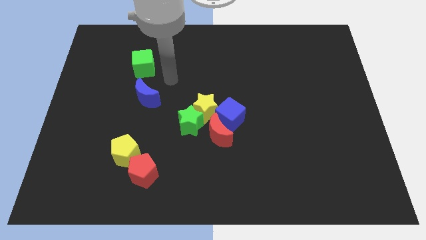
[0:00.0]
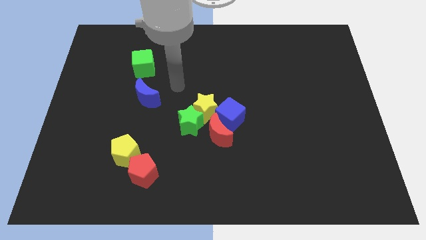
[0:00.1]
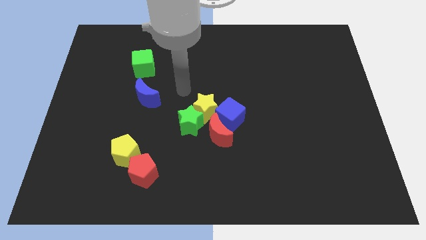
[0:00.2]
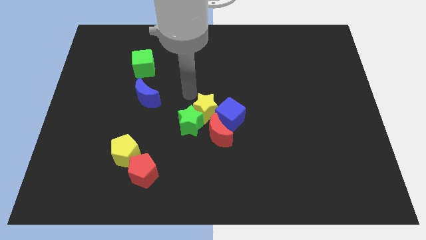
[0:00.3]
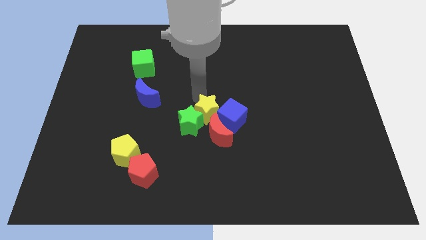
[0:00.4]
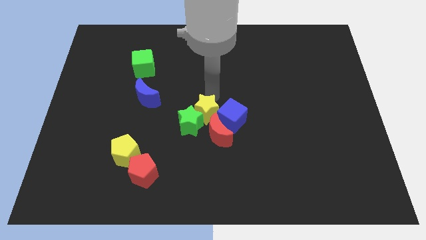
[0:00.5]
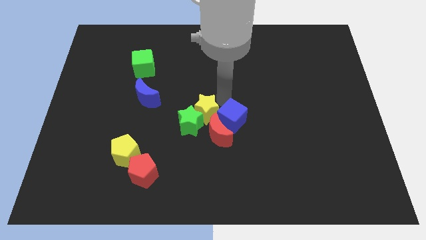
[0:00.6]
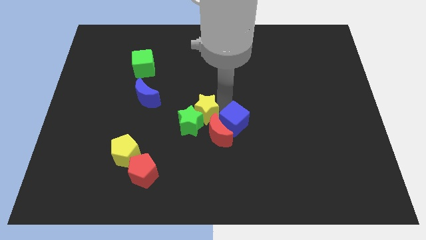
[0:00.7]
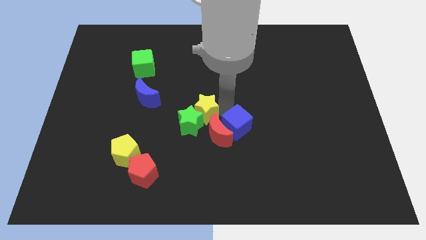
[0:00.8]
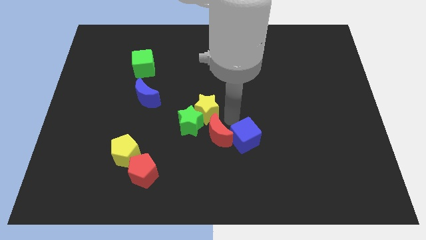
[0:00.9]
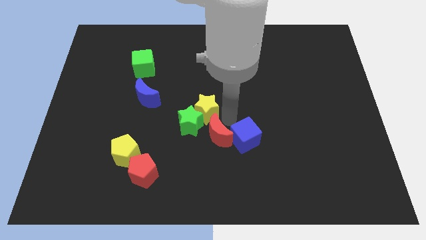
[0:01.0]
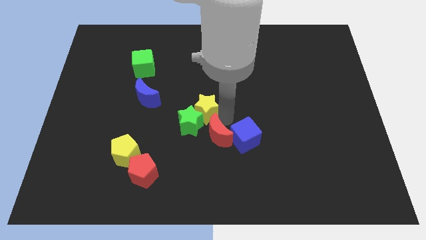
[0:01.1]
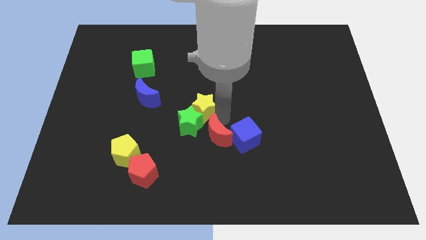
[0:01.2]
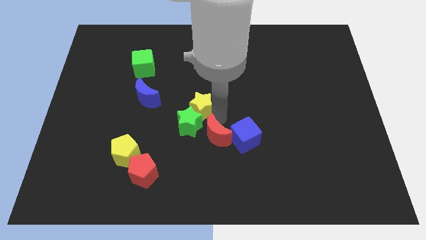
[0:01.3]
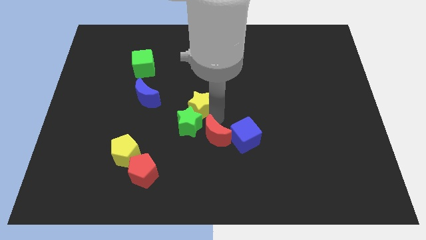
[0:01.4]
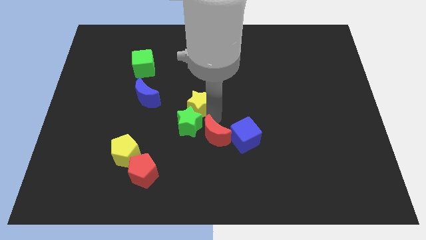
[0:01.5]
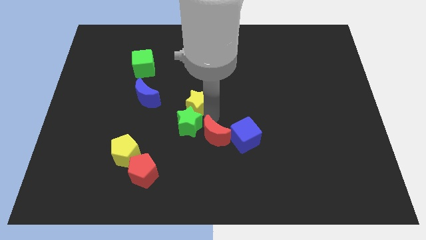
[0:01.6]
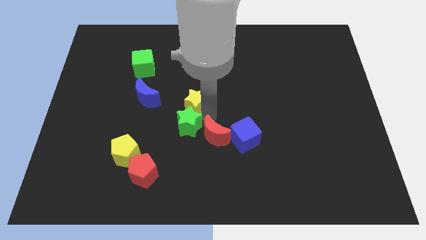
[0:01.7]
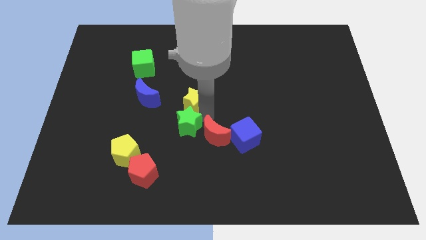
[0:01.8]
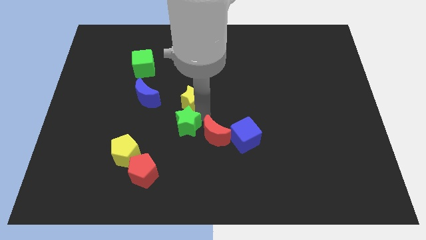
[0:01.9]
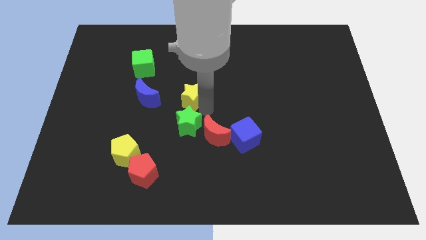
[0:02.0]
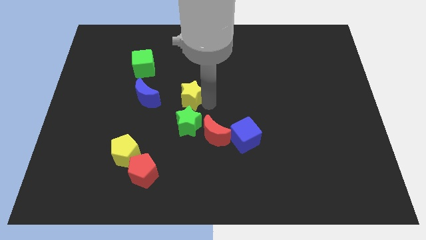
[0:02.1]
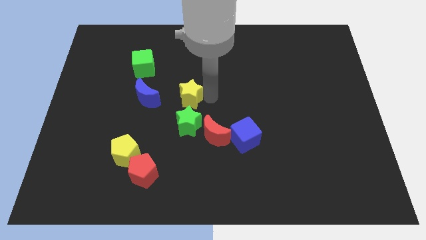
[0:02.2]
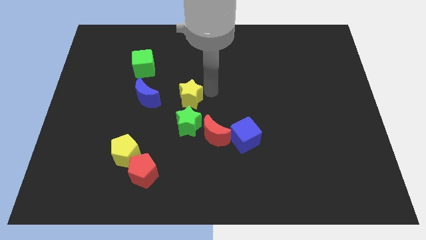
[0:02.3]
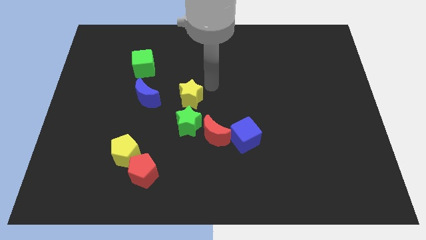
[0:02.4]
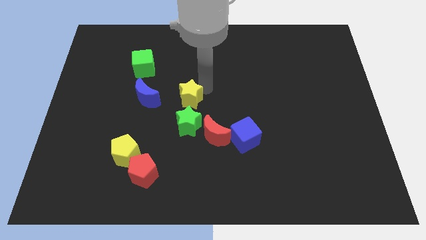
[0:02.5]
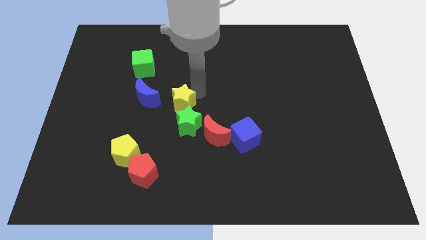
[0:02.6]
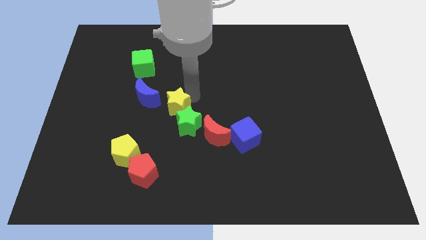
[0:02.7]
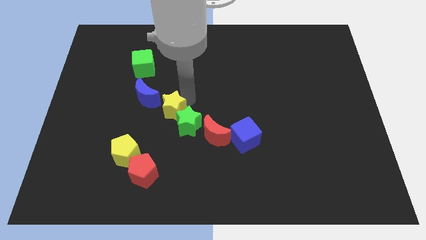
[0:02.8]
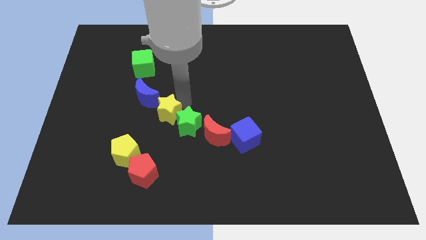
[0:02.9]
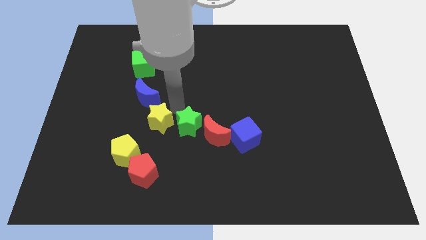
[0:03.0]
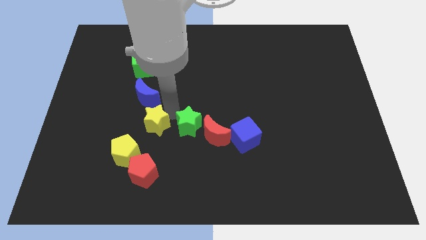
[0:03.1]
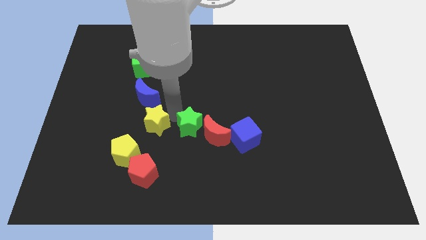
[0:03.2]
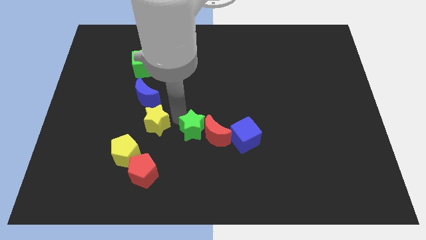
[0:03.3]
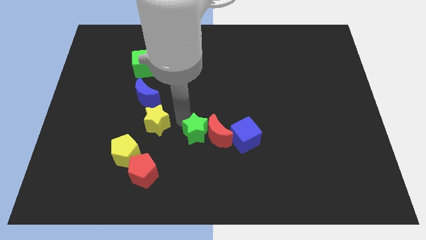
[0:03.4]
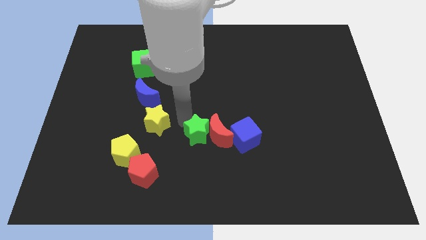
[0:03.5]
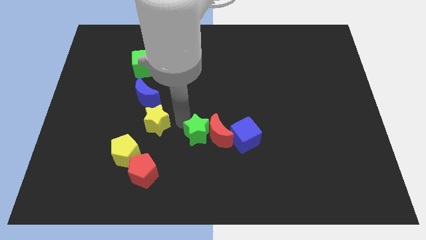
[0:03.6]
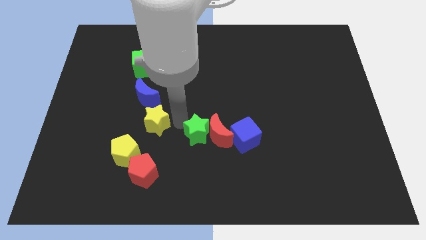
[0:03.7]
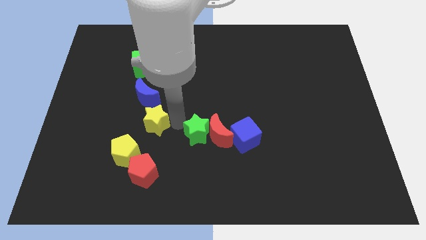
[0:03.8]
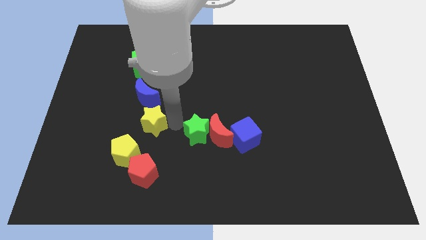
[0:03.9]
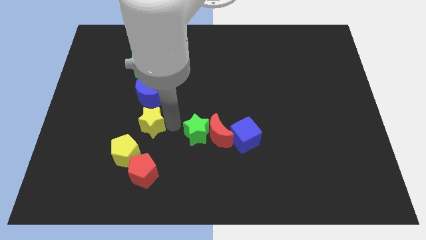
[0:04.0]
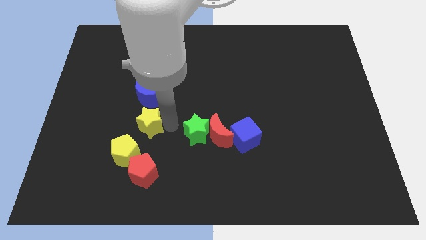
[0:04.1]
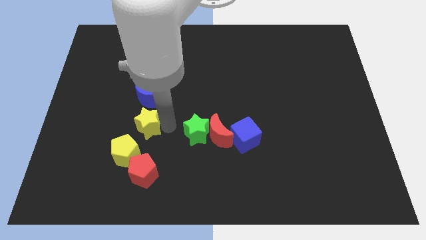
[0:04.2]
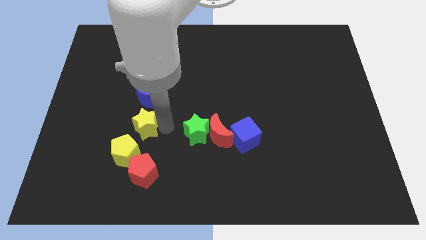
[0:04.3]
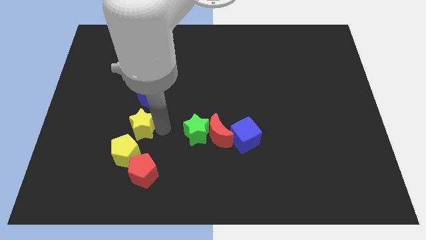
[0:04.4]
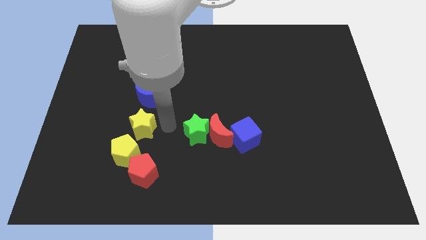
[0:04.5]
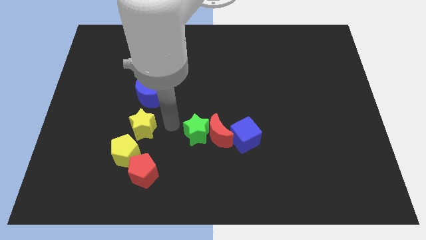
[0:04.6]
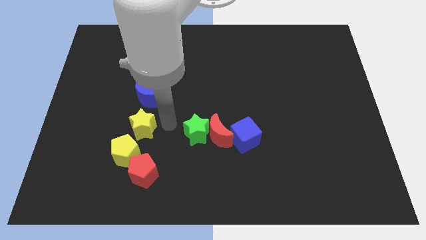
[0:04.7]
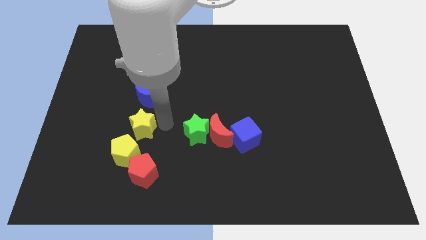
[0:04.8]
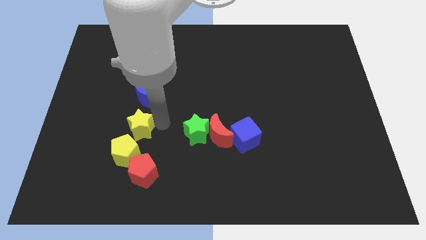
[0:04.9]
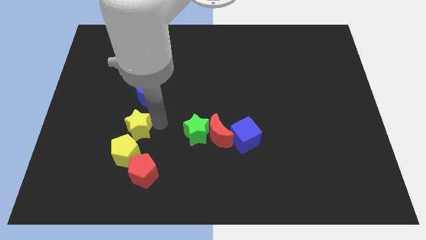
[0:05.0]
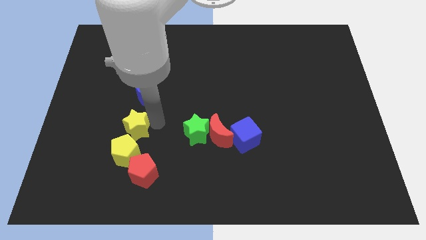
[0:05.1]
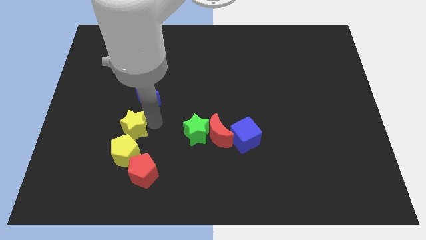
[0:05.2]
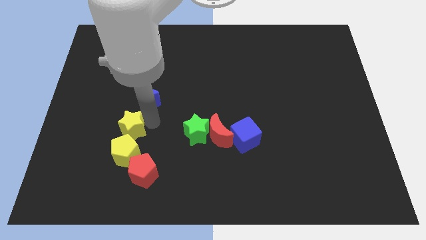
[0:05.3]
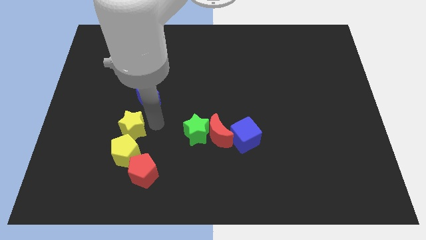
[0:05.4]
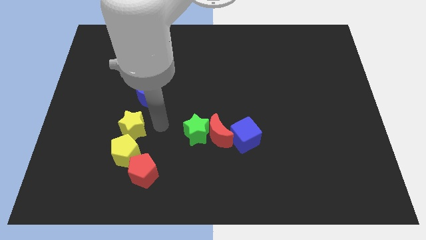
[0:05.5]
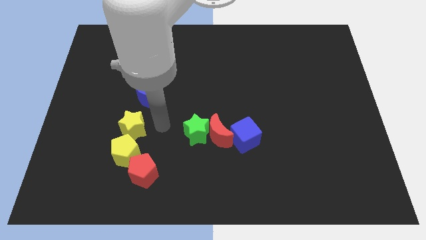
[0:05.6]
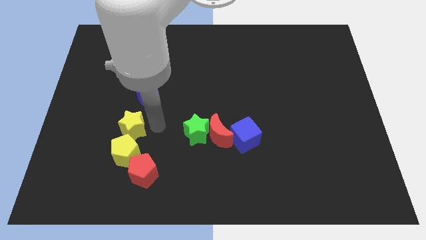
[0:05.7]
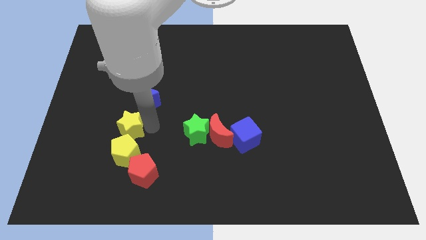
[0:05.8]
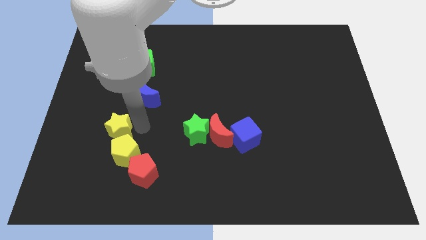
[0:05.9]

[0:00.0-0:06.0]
put the yellow star to the top left of the red pentagon

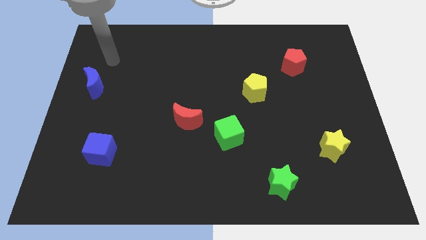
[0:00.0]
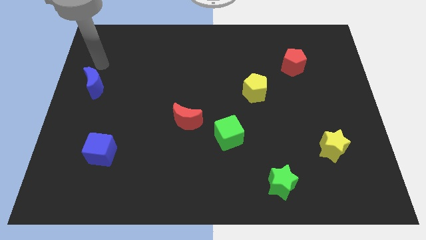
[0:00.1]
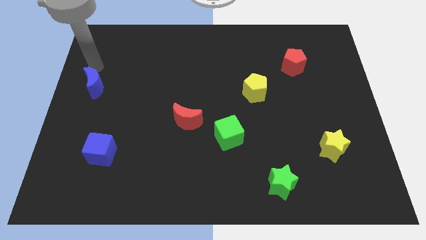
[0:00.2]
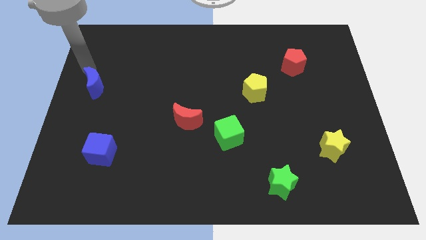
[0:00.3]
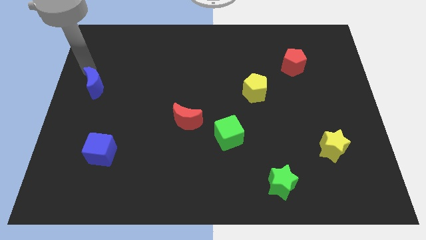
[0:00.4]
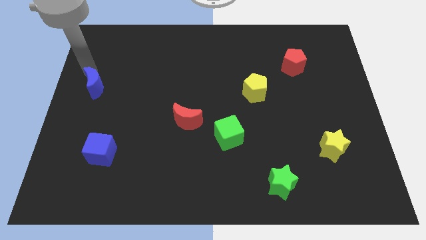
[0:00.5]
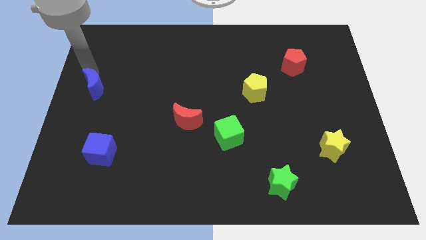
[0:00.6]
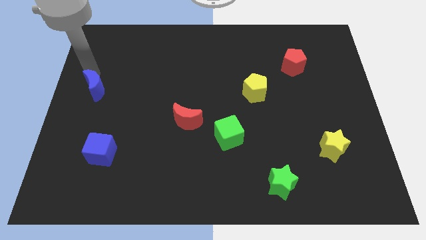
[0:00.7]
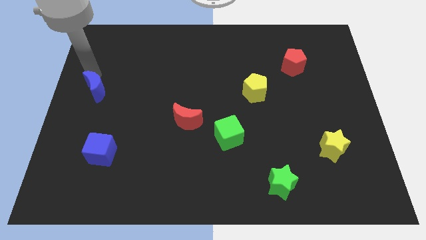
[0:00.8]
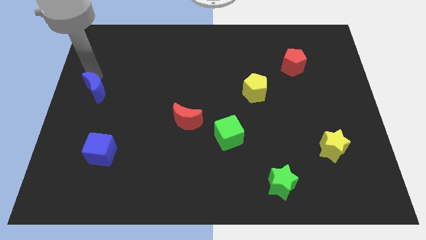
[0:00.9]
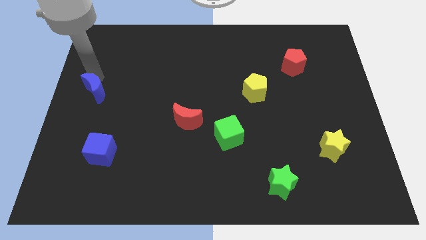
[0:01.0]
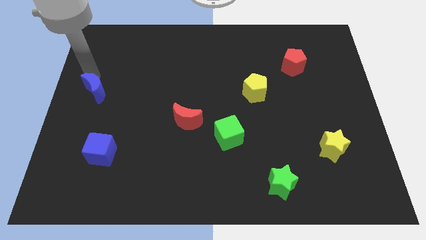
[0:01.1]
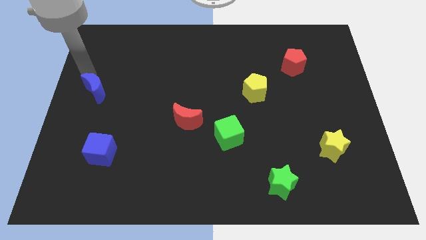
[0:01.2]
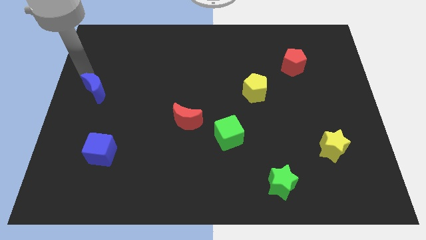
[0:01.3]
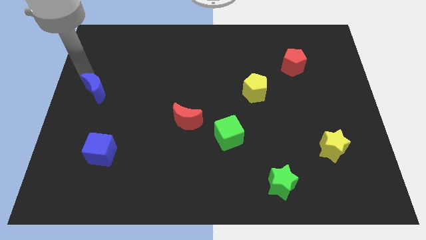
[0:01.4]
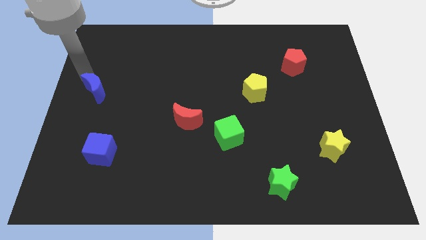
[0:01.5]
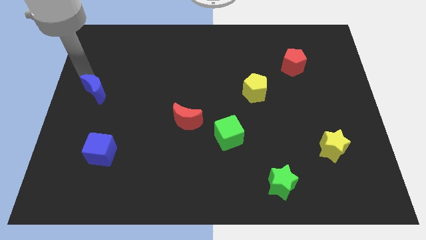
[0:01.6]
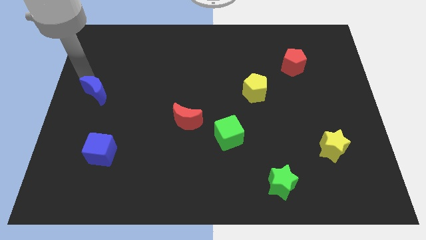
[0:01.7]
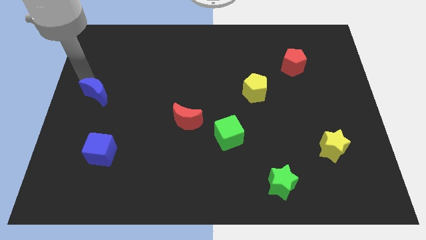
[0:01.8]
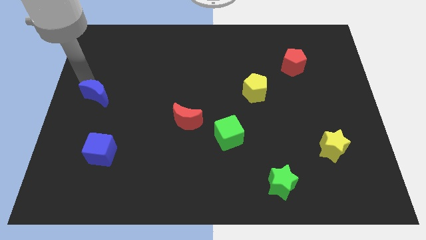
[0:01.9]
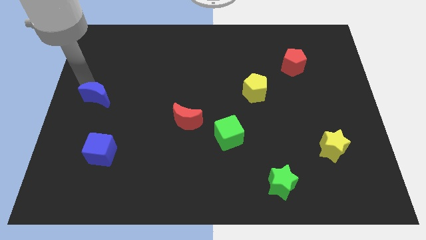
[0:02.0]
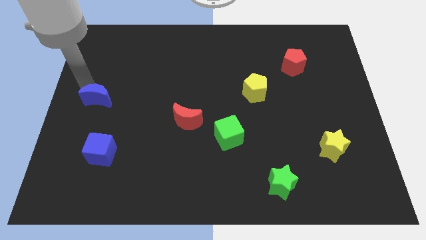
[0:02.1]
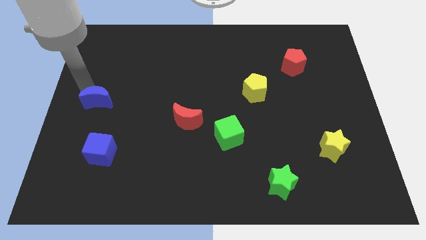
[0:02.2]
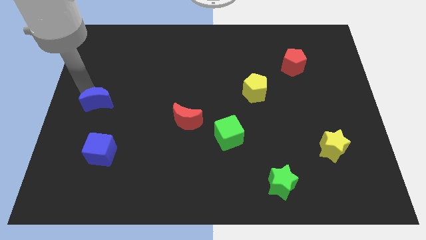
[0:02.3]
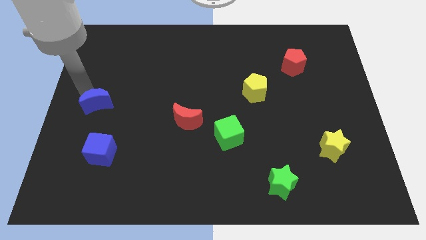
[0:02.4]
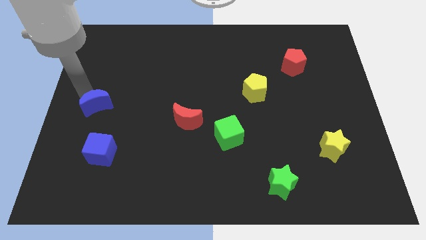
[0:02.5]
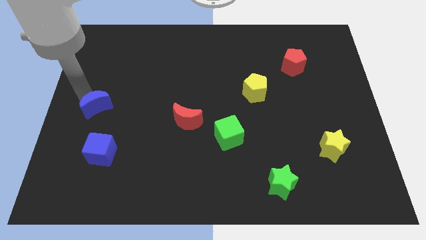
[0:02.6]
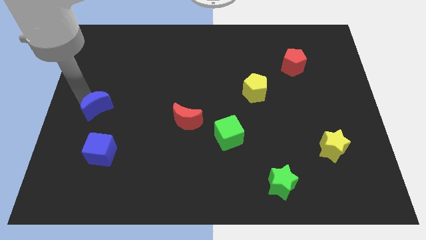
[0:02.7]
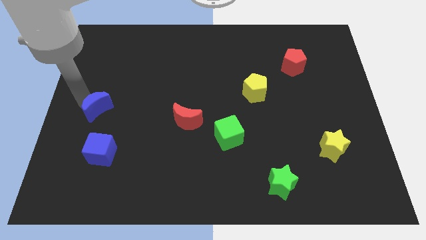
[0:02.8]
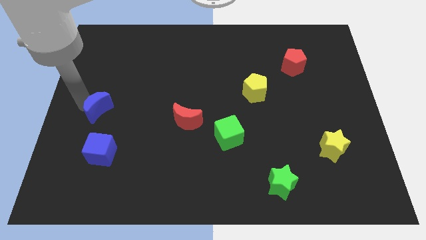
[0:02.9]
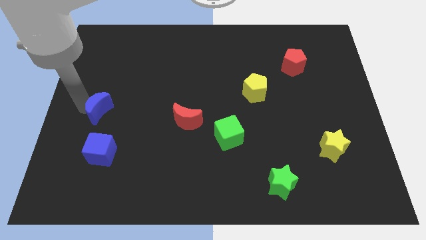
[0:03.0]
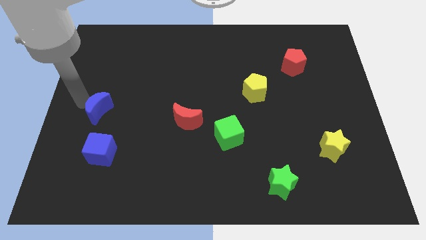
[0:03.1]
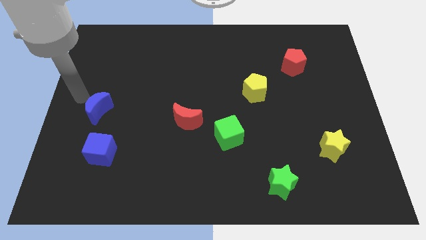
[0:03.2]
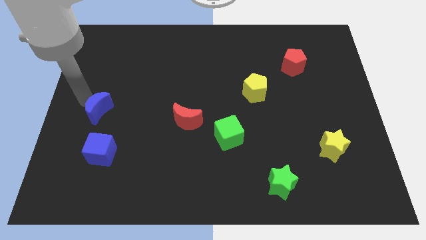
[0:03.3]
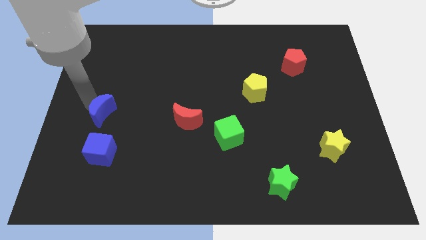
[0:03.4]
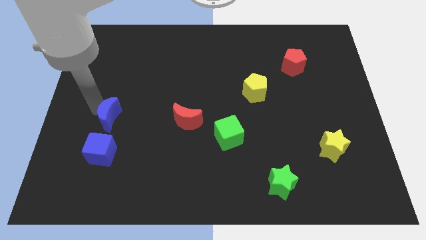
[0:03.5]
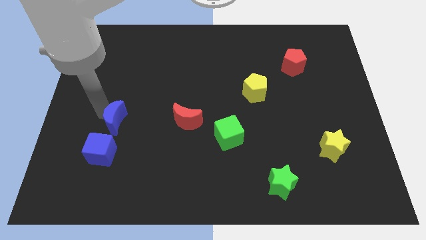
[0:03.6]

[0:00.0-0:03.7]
put the blue moon diagonally up and to the right of the blue cube
